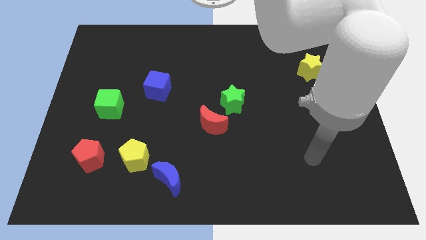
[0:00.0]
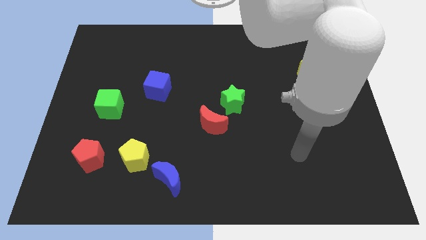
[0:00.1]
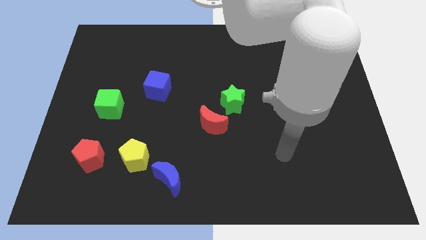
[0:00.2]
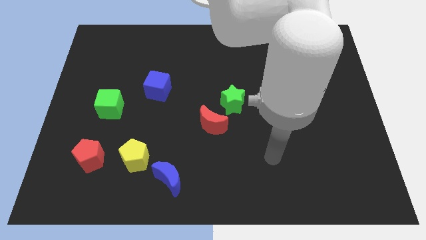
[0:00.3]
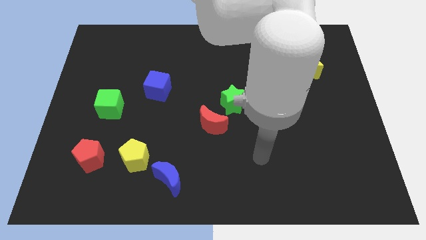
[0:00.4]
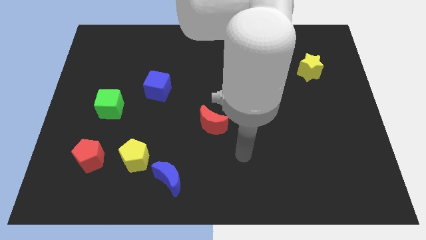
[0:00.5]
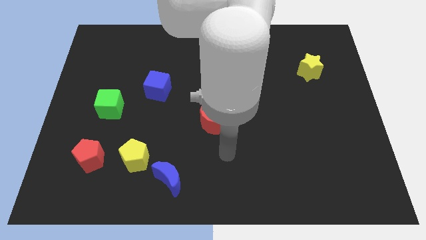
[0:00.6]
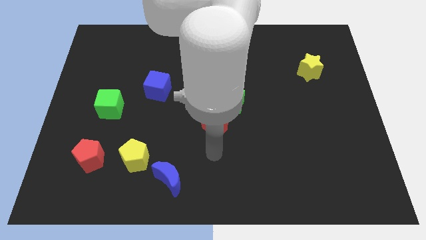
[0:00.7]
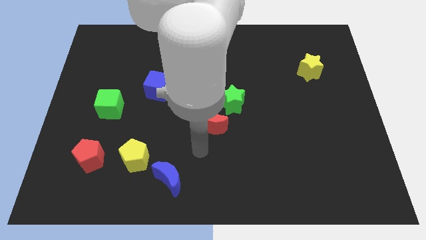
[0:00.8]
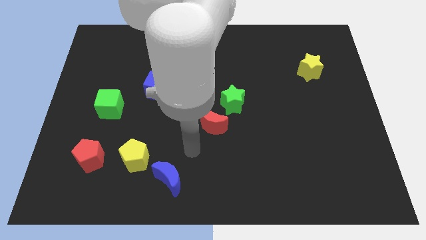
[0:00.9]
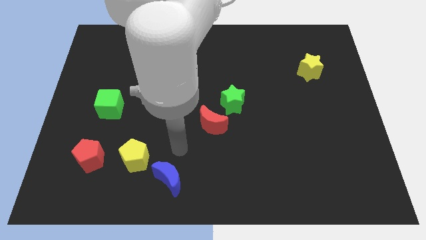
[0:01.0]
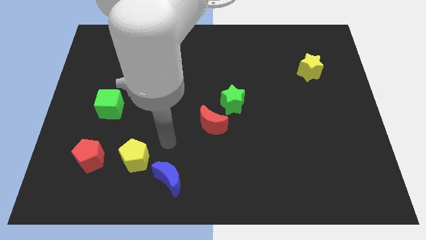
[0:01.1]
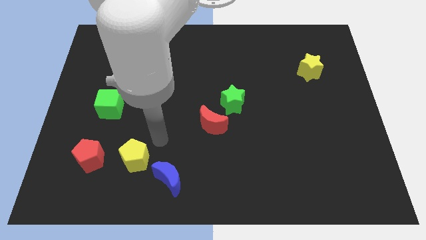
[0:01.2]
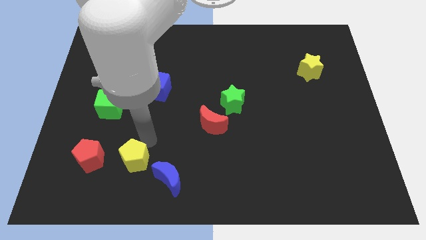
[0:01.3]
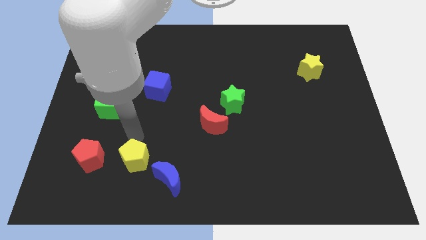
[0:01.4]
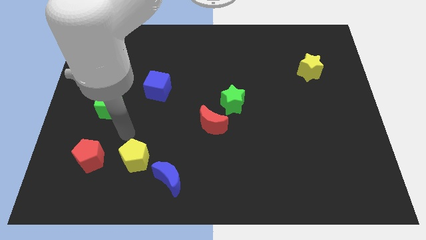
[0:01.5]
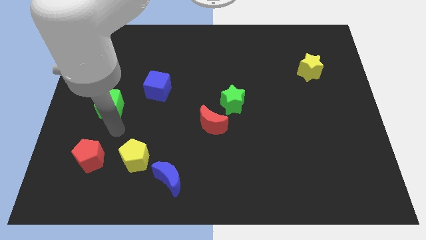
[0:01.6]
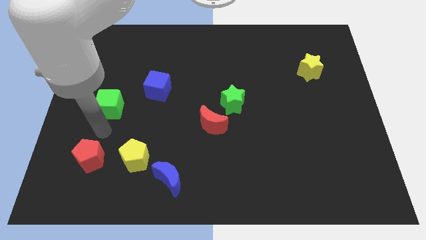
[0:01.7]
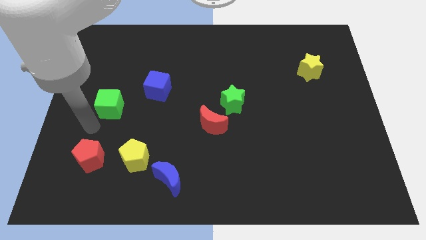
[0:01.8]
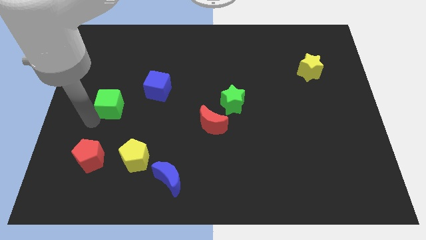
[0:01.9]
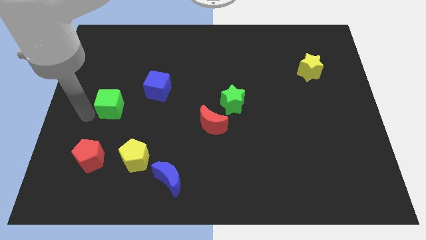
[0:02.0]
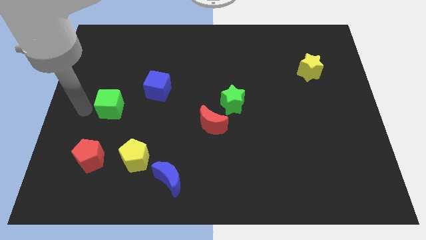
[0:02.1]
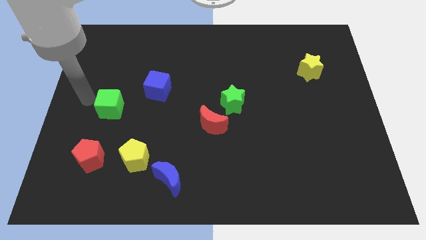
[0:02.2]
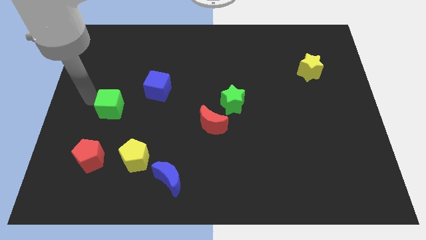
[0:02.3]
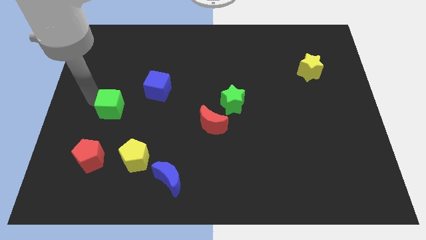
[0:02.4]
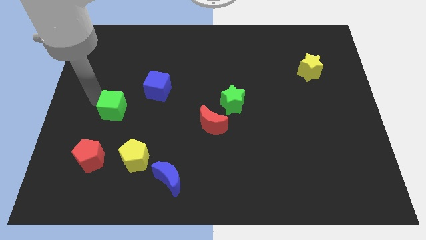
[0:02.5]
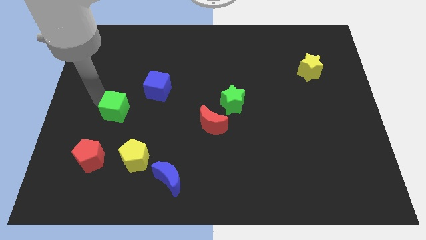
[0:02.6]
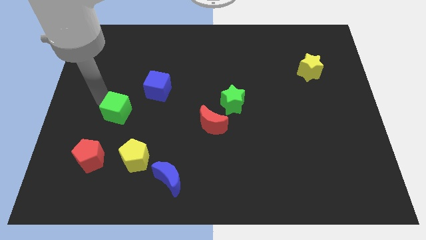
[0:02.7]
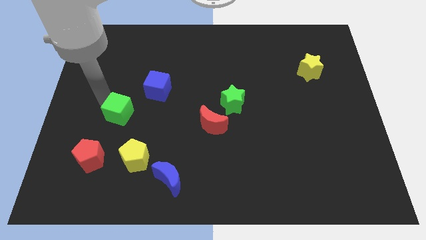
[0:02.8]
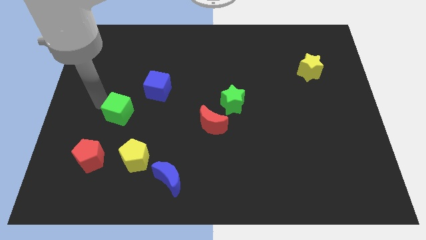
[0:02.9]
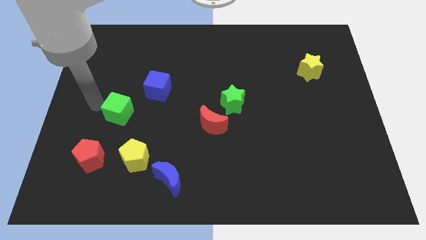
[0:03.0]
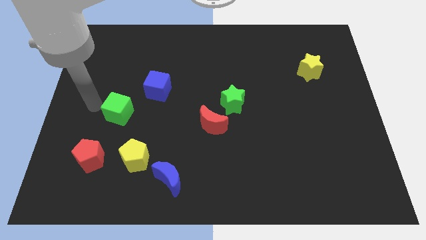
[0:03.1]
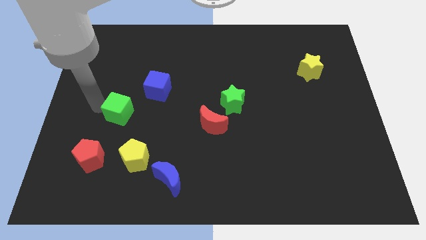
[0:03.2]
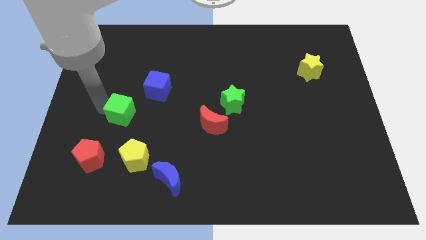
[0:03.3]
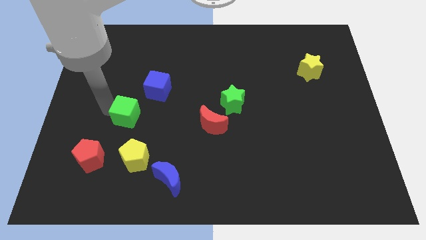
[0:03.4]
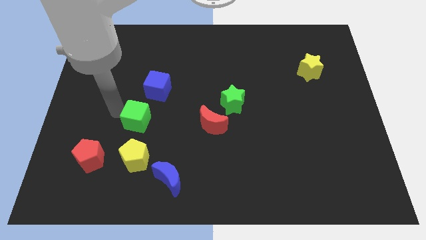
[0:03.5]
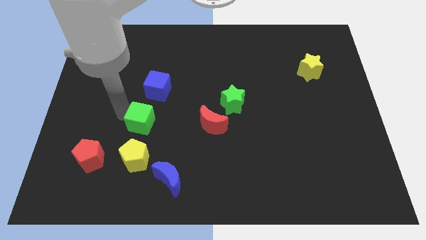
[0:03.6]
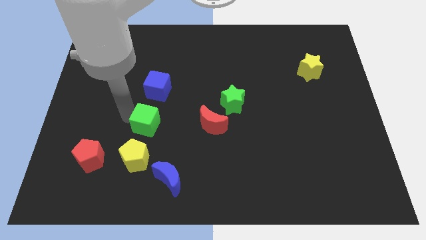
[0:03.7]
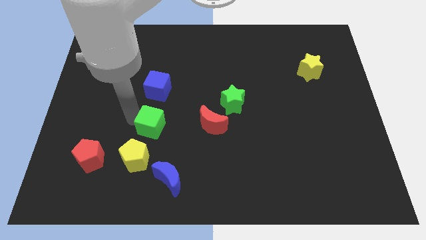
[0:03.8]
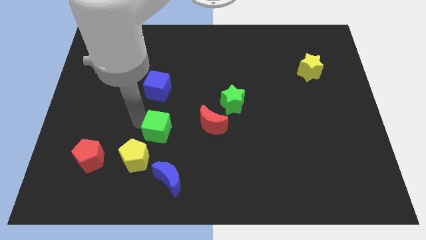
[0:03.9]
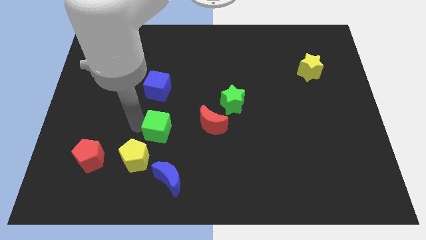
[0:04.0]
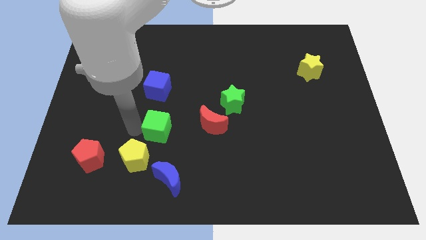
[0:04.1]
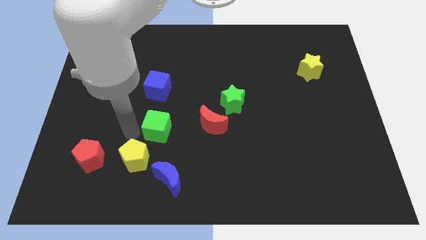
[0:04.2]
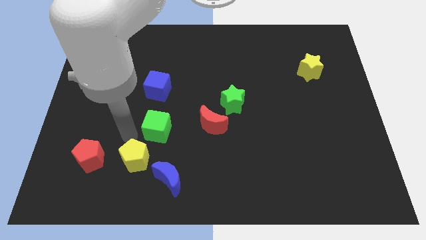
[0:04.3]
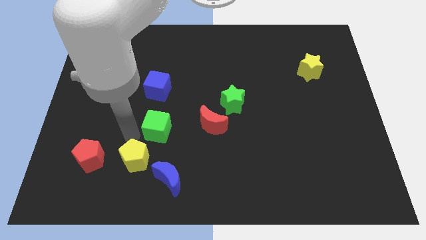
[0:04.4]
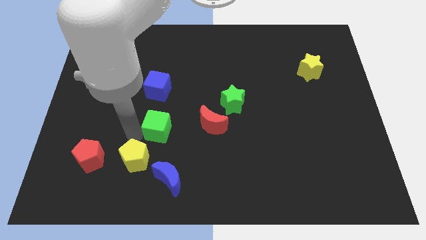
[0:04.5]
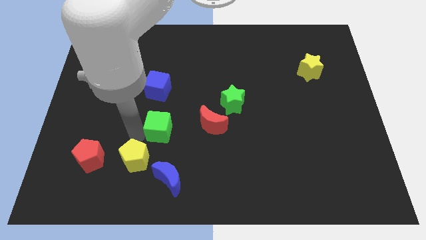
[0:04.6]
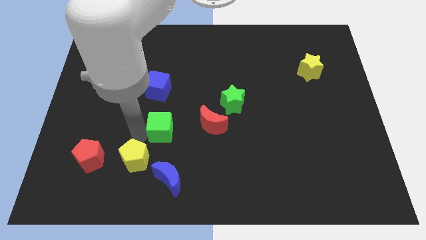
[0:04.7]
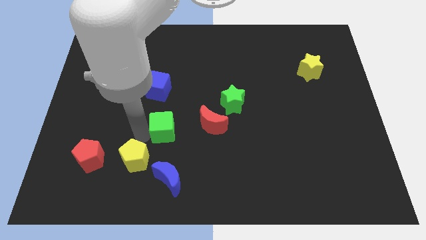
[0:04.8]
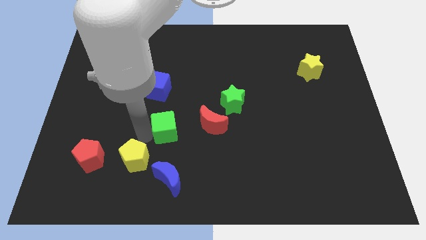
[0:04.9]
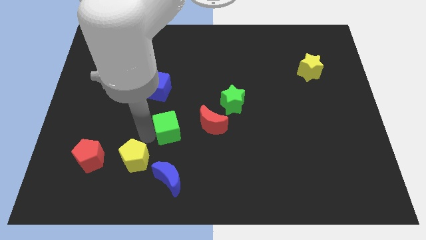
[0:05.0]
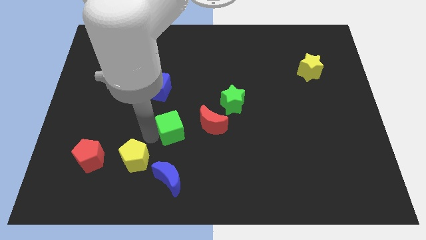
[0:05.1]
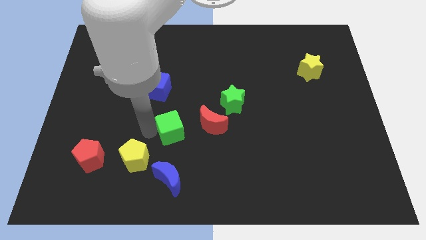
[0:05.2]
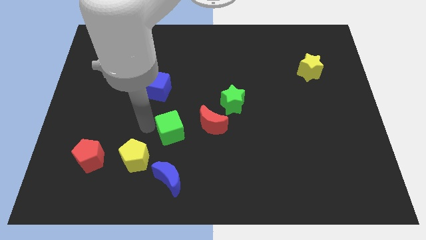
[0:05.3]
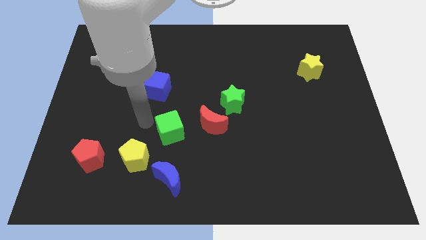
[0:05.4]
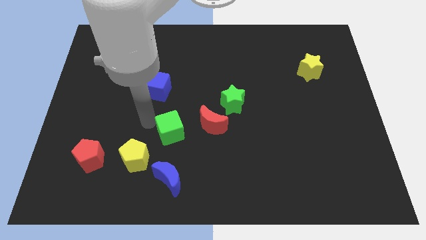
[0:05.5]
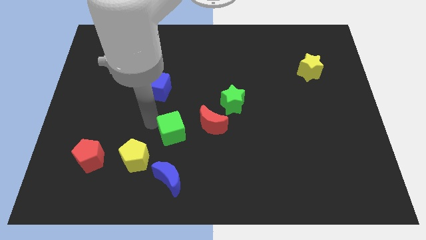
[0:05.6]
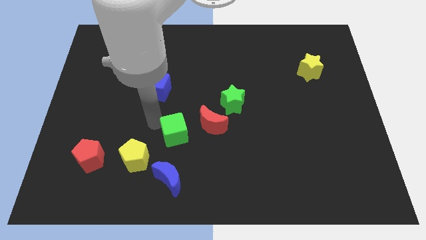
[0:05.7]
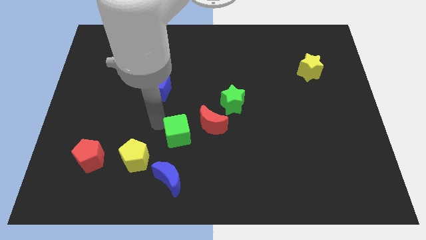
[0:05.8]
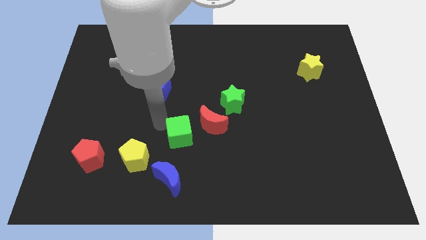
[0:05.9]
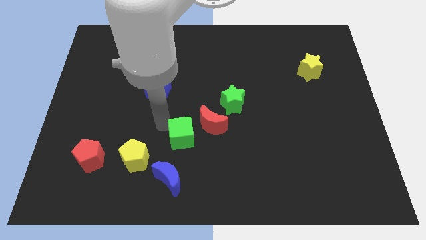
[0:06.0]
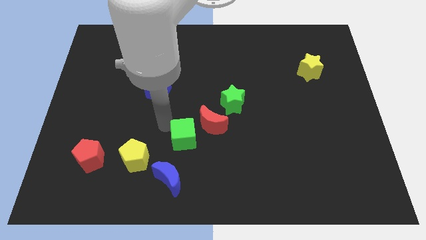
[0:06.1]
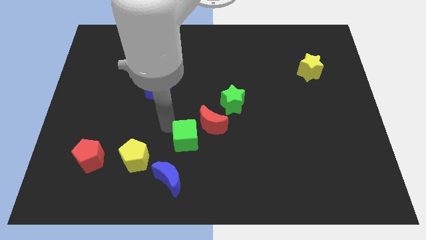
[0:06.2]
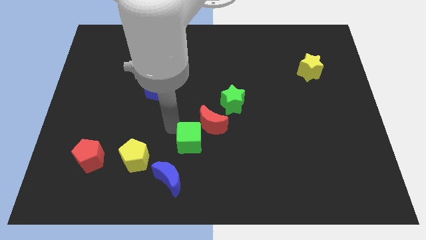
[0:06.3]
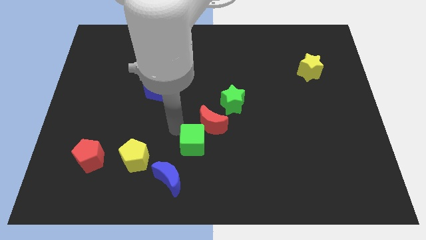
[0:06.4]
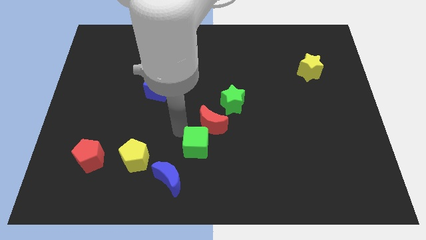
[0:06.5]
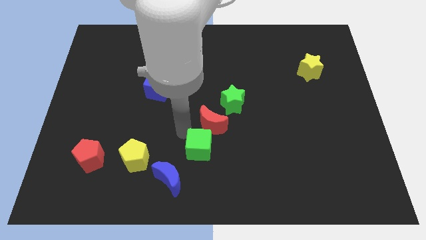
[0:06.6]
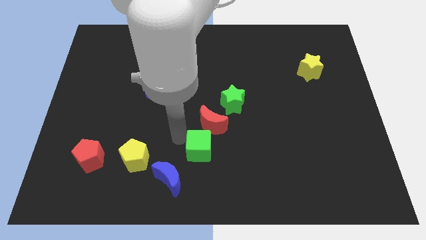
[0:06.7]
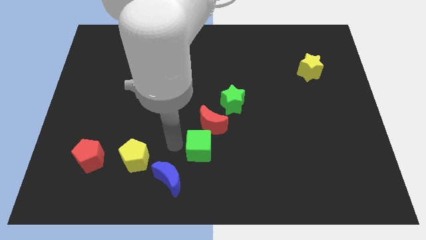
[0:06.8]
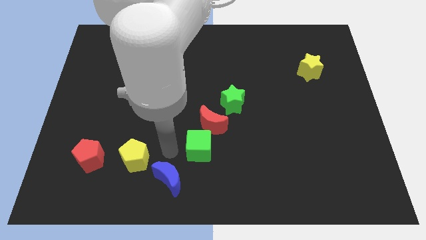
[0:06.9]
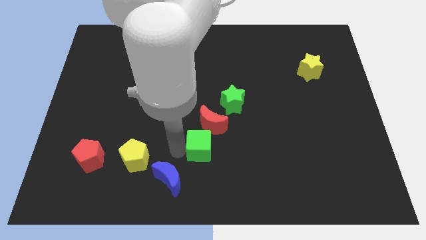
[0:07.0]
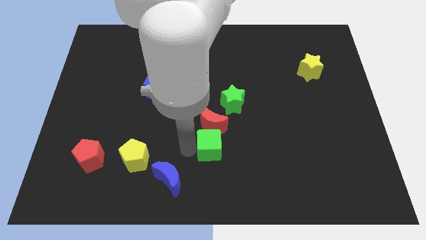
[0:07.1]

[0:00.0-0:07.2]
put the green cube to the bottom right side of the red moon

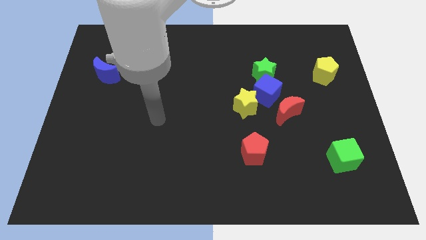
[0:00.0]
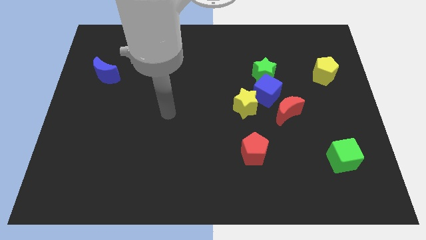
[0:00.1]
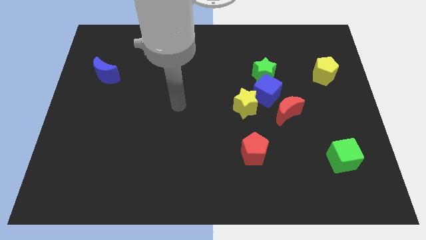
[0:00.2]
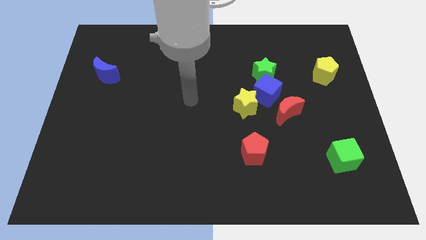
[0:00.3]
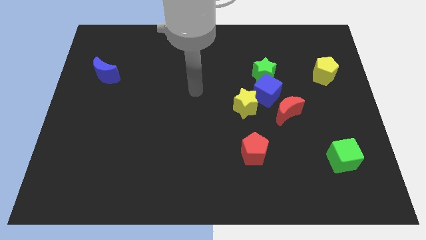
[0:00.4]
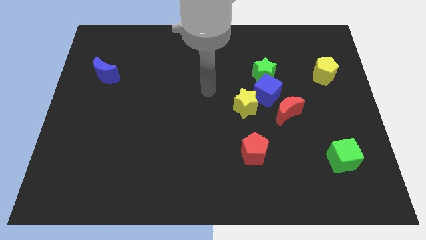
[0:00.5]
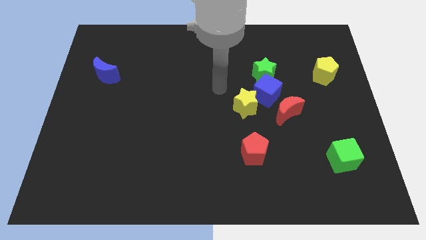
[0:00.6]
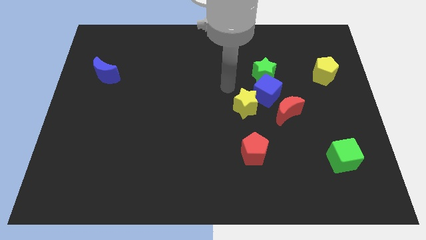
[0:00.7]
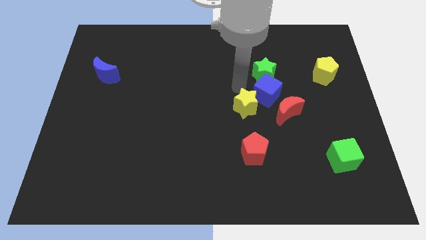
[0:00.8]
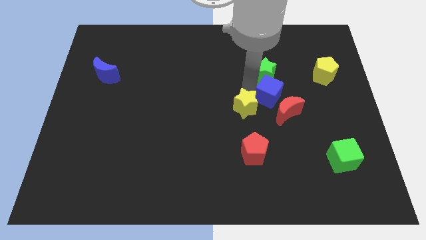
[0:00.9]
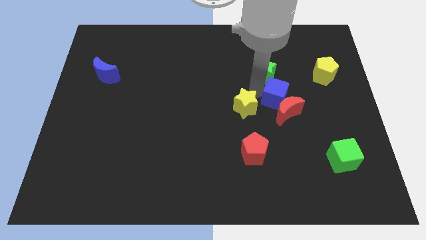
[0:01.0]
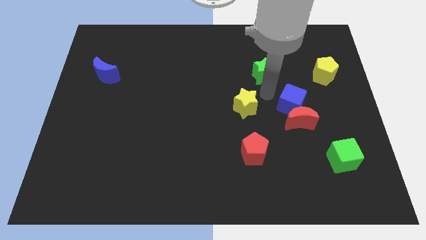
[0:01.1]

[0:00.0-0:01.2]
put the red moon to the top left side of the green cube
